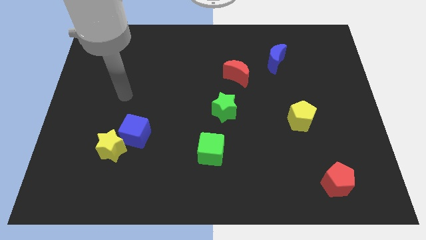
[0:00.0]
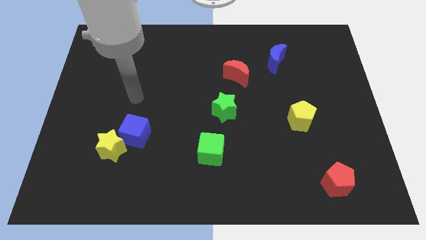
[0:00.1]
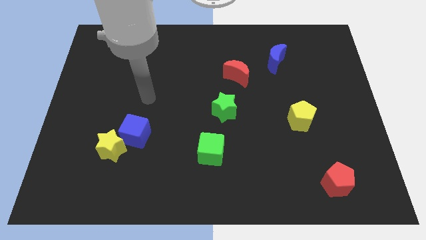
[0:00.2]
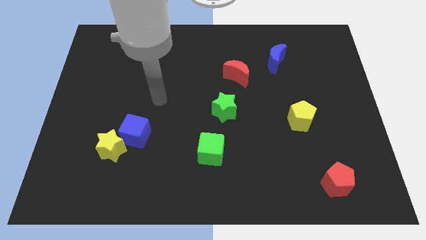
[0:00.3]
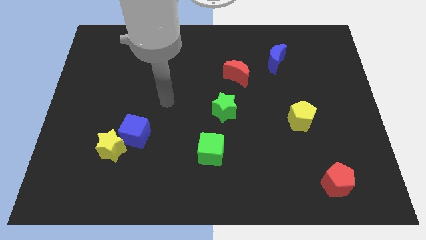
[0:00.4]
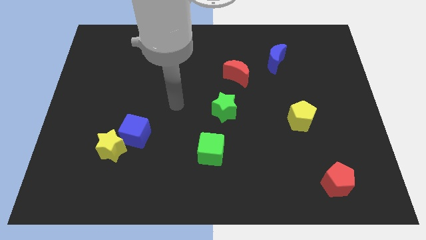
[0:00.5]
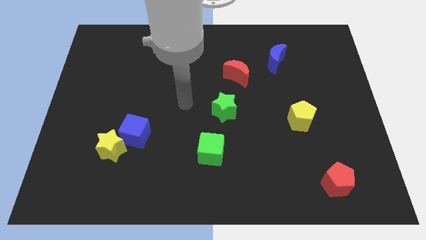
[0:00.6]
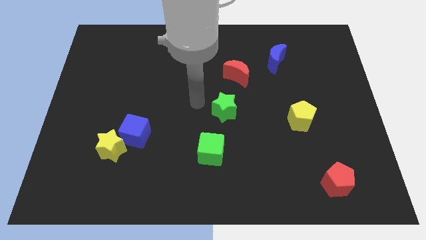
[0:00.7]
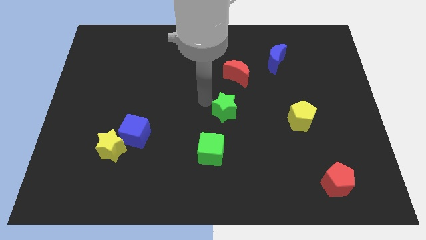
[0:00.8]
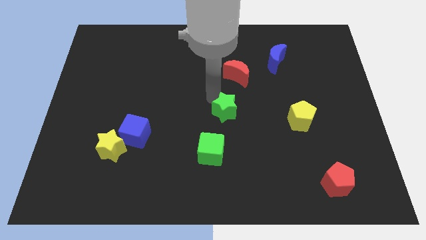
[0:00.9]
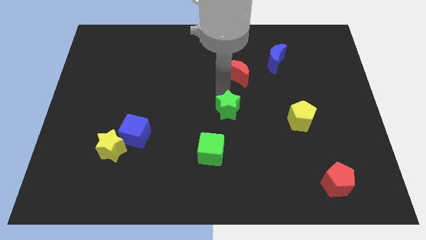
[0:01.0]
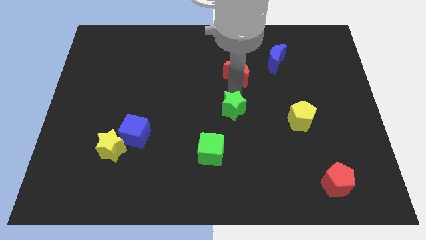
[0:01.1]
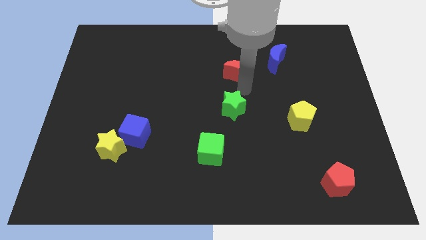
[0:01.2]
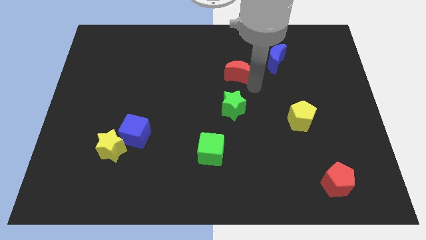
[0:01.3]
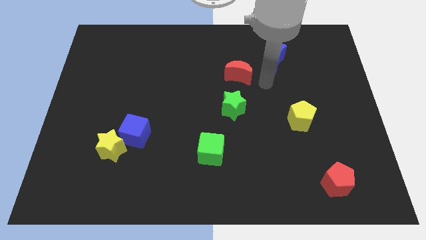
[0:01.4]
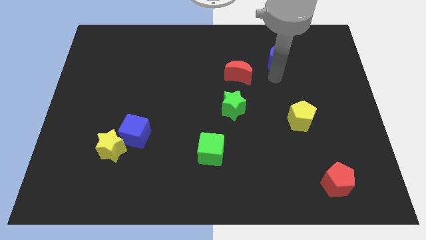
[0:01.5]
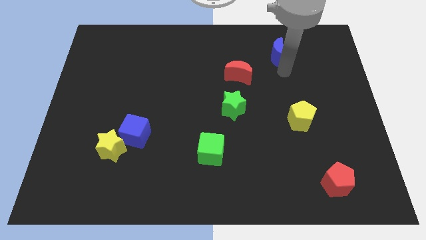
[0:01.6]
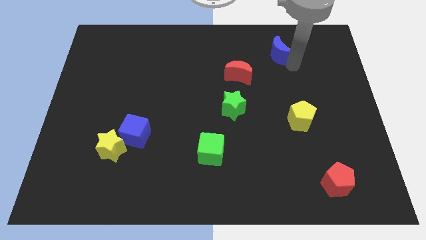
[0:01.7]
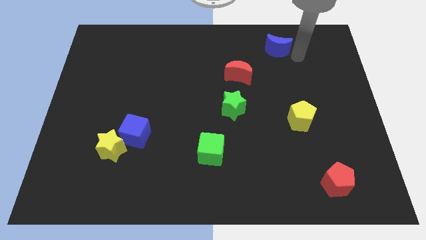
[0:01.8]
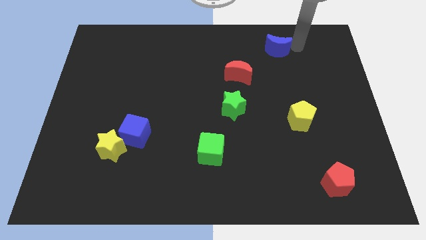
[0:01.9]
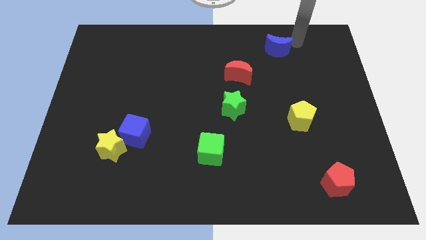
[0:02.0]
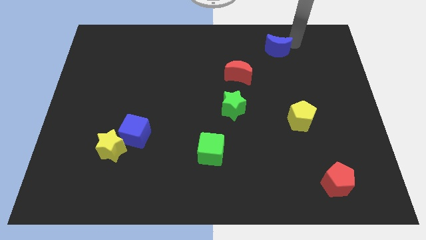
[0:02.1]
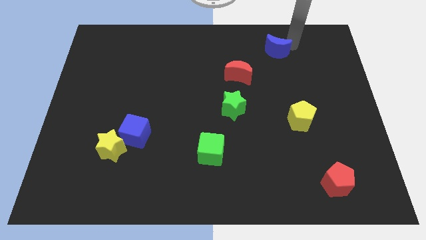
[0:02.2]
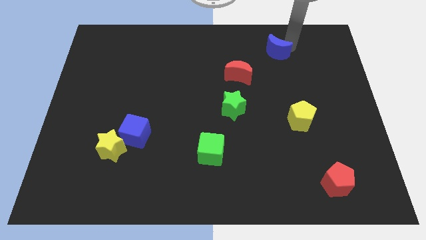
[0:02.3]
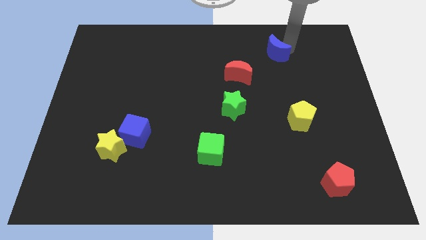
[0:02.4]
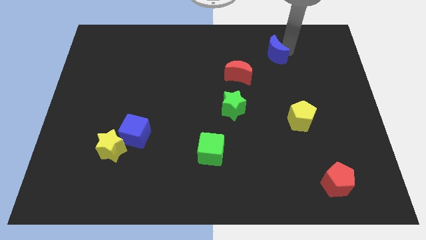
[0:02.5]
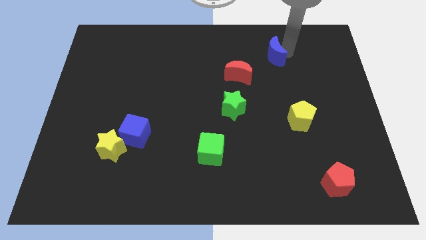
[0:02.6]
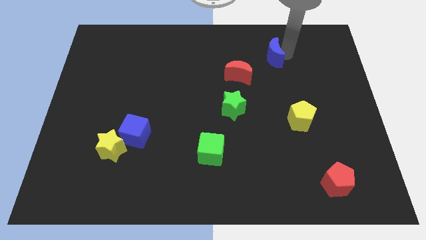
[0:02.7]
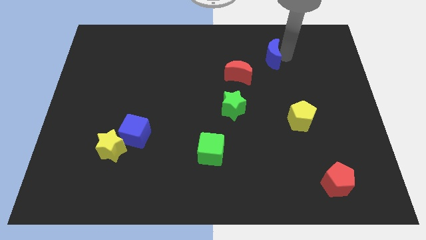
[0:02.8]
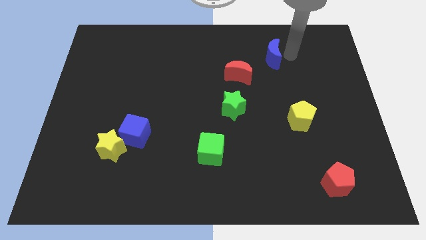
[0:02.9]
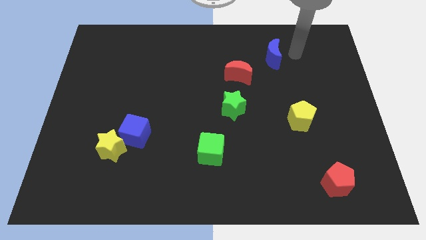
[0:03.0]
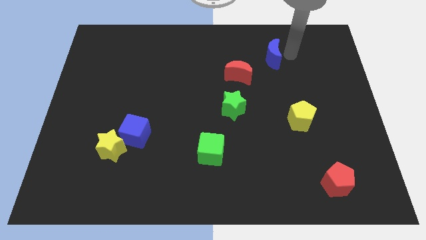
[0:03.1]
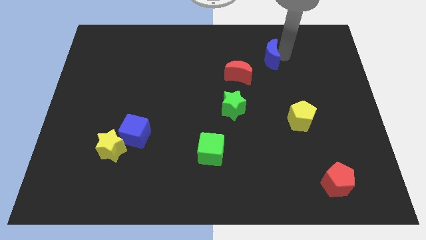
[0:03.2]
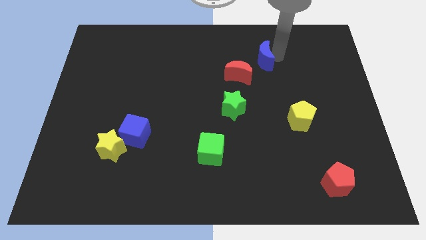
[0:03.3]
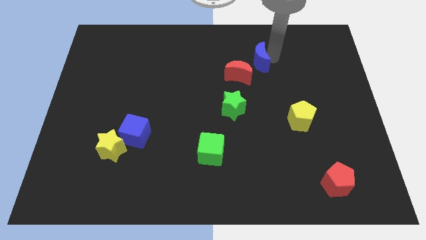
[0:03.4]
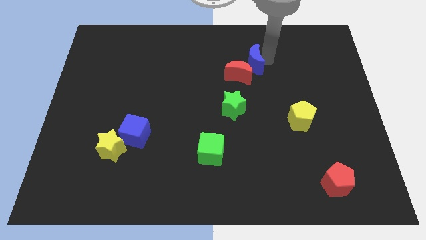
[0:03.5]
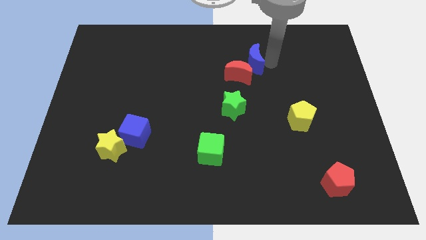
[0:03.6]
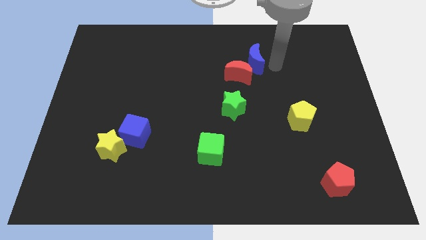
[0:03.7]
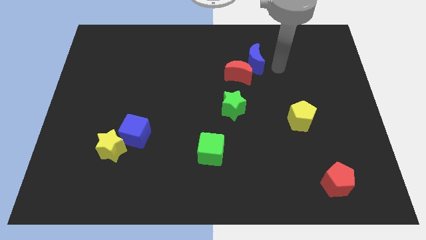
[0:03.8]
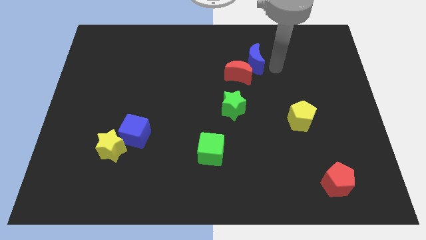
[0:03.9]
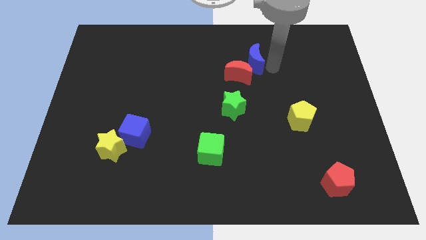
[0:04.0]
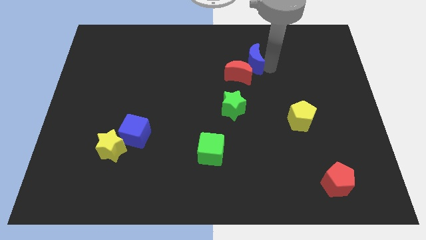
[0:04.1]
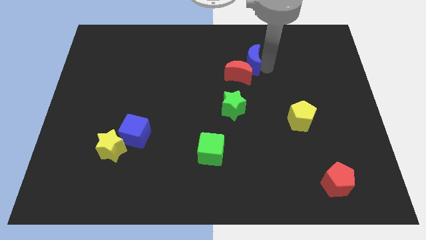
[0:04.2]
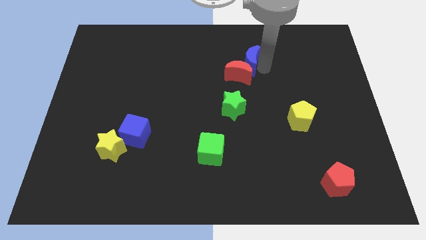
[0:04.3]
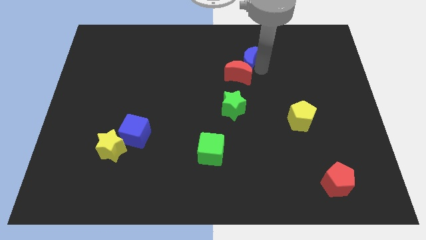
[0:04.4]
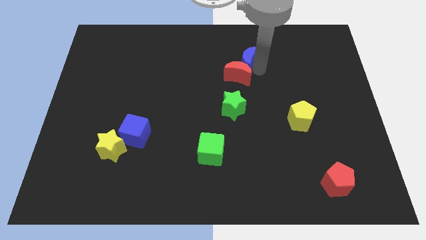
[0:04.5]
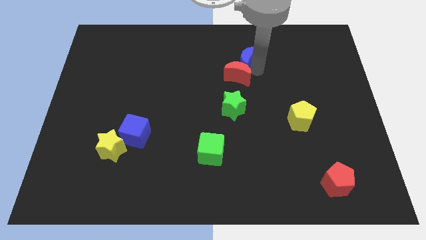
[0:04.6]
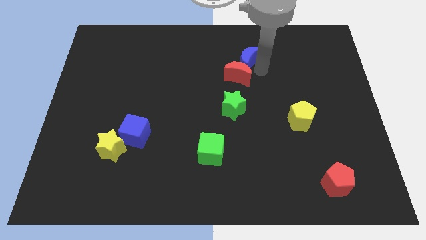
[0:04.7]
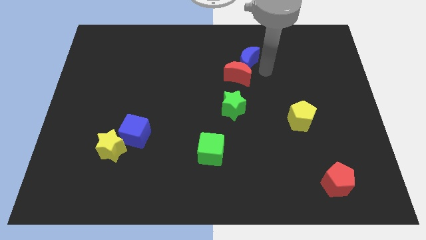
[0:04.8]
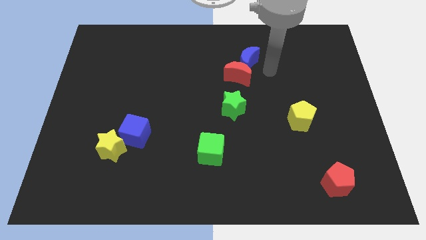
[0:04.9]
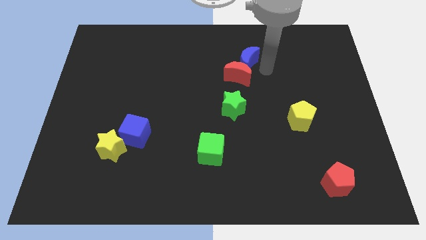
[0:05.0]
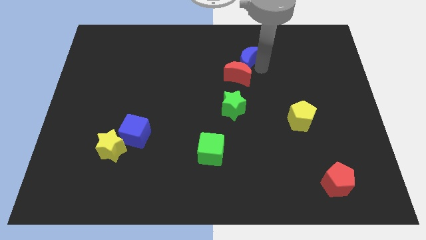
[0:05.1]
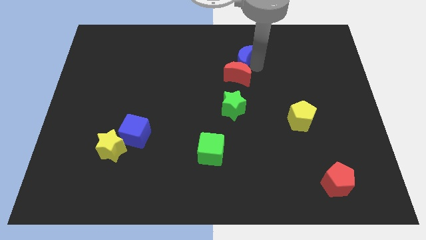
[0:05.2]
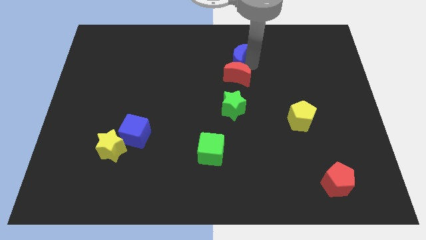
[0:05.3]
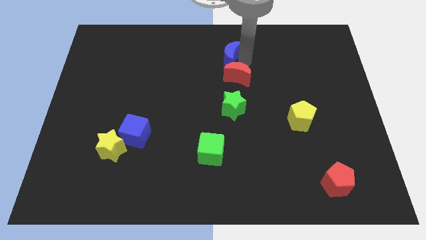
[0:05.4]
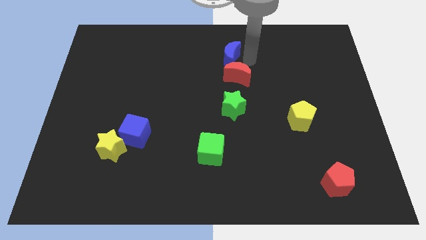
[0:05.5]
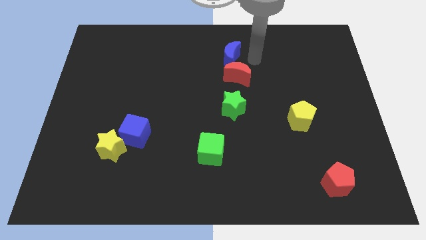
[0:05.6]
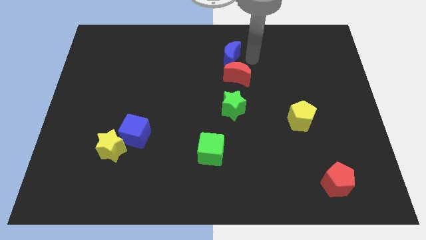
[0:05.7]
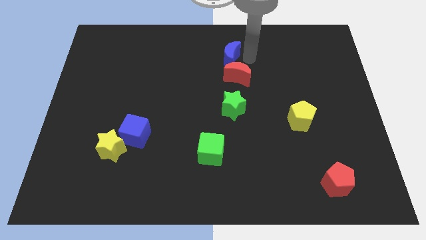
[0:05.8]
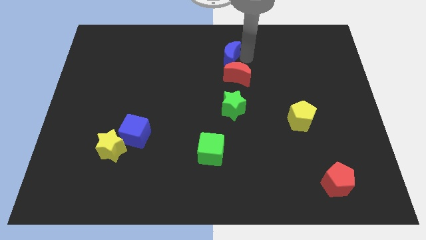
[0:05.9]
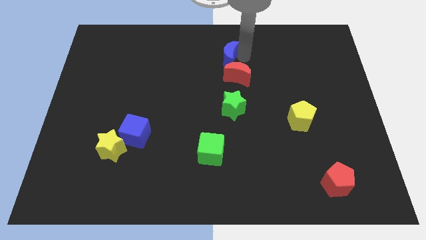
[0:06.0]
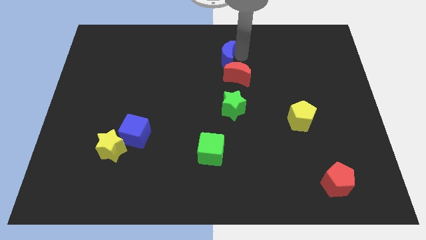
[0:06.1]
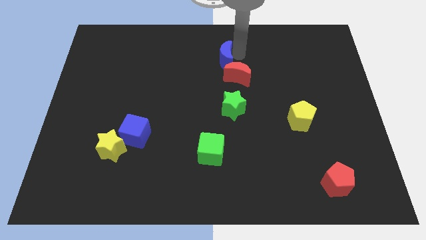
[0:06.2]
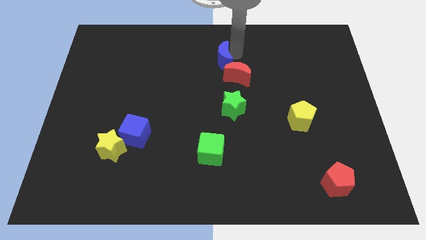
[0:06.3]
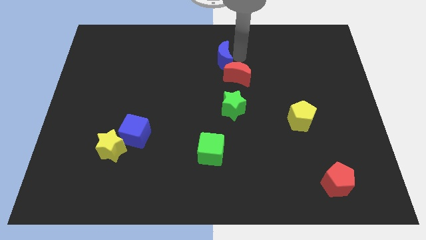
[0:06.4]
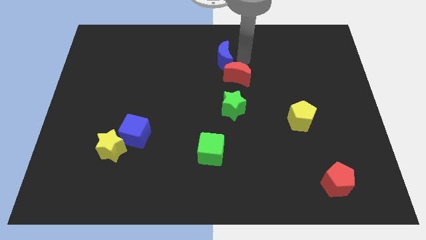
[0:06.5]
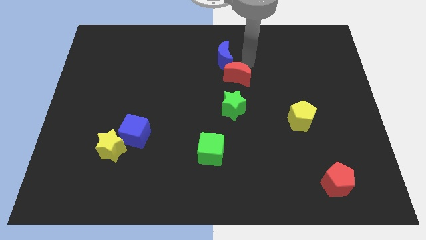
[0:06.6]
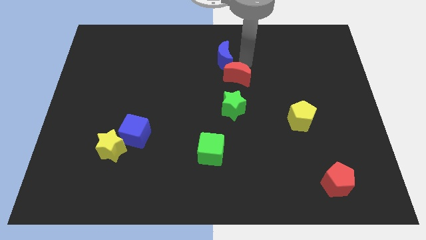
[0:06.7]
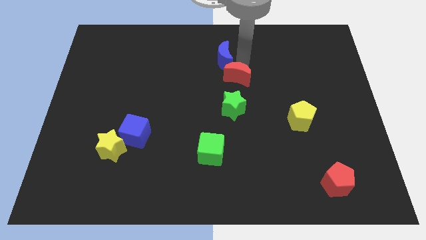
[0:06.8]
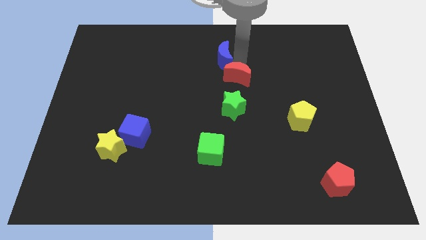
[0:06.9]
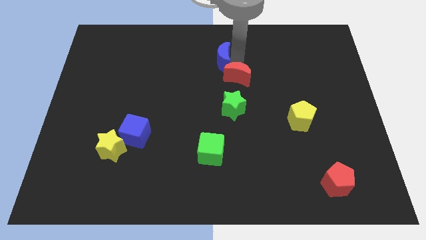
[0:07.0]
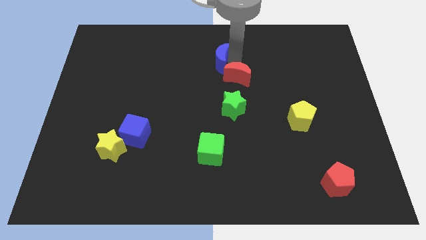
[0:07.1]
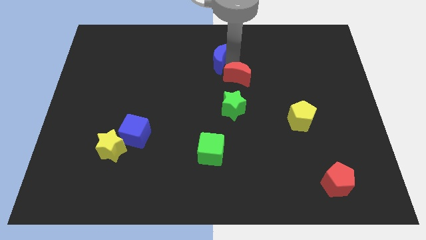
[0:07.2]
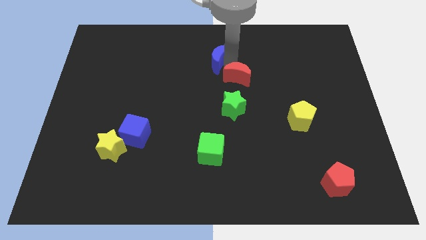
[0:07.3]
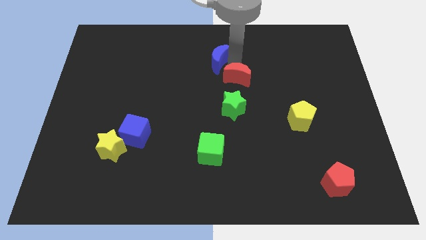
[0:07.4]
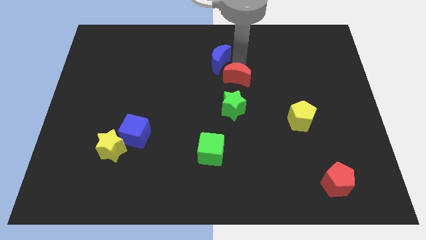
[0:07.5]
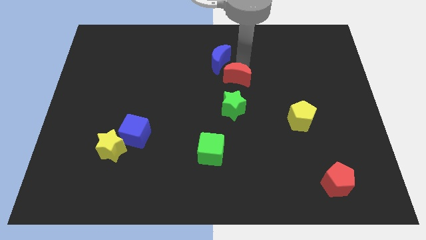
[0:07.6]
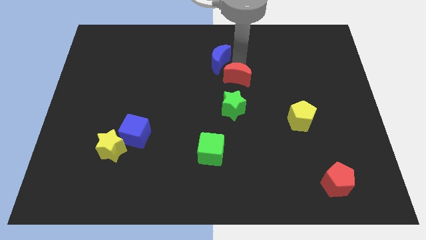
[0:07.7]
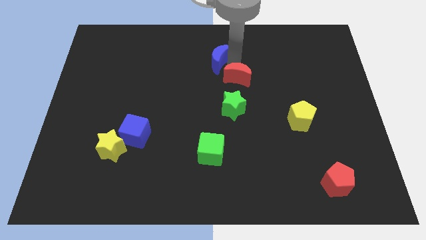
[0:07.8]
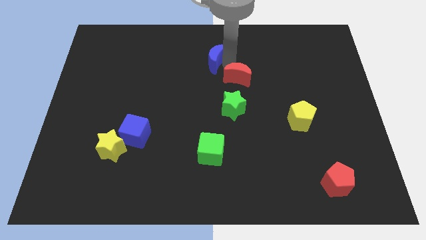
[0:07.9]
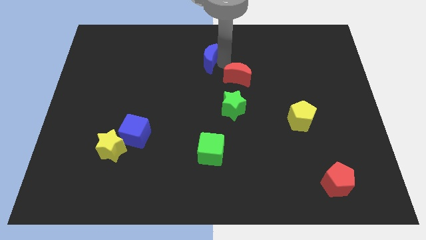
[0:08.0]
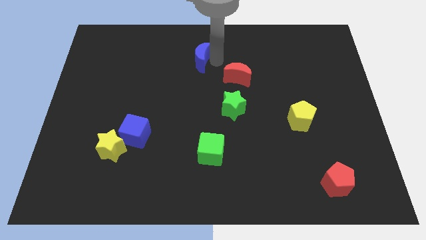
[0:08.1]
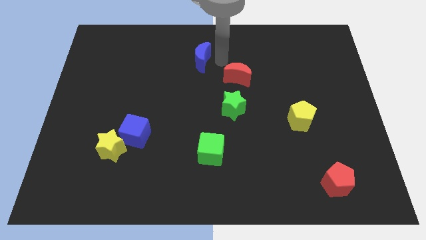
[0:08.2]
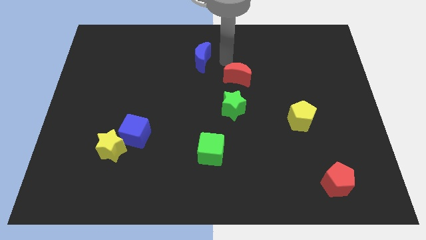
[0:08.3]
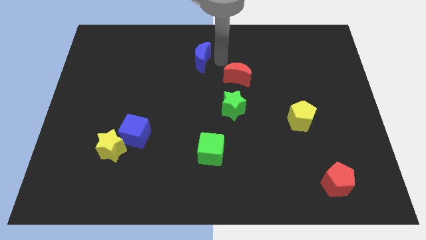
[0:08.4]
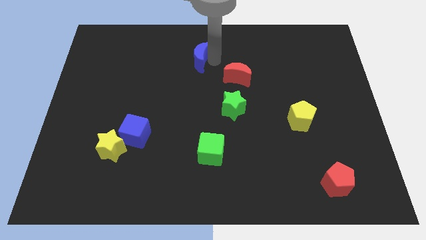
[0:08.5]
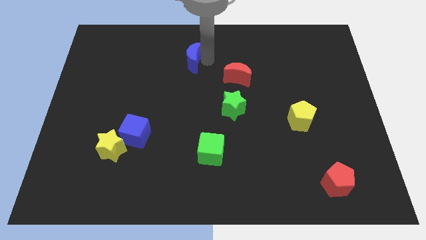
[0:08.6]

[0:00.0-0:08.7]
push the blue moon to the left
